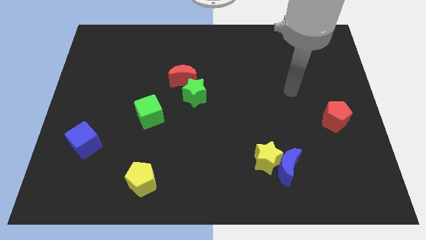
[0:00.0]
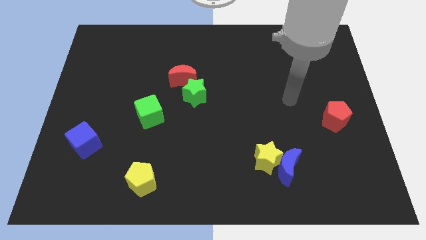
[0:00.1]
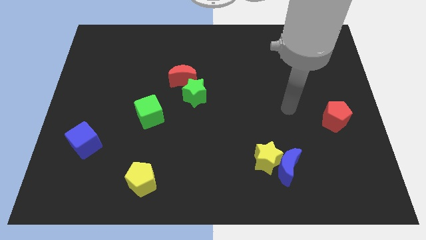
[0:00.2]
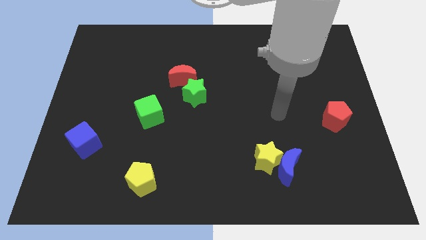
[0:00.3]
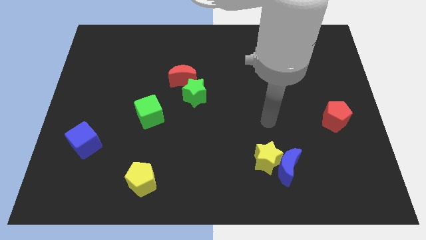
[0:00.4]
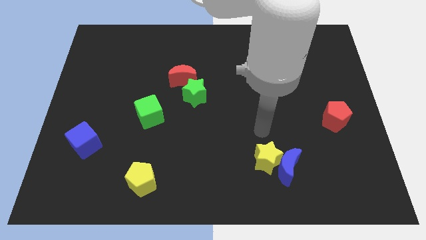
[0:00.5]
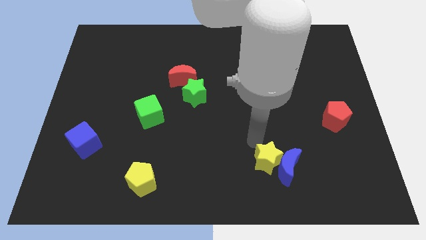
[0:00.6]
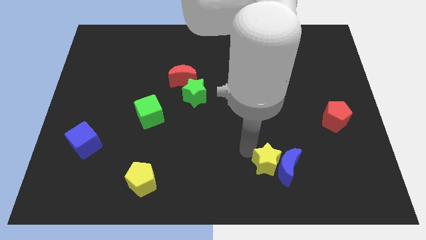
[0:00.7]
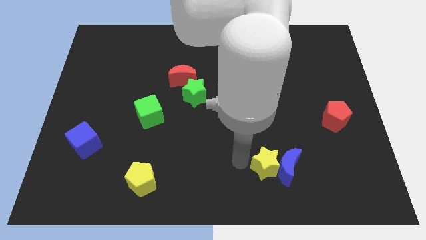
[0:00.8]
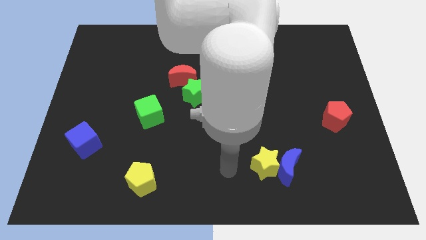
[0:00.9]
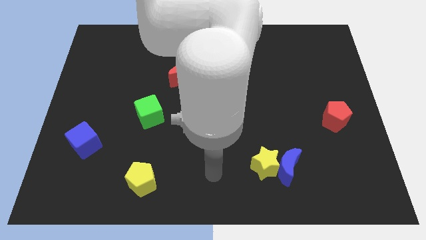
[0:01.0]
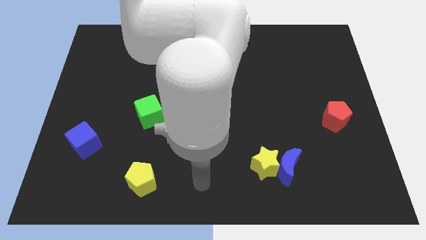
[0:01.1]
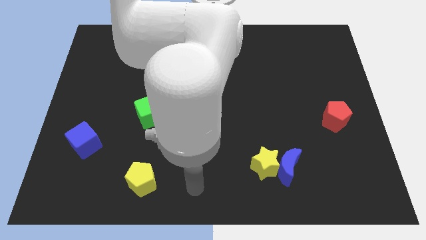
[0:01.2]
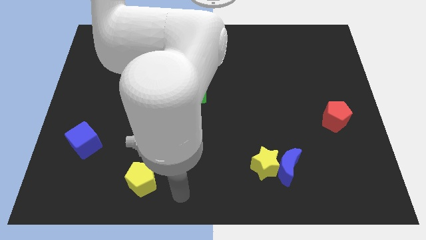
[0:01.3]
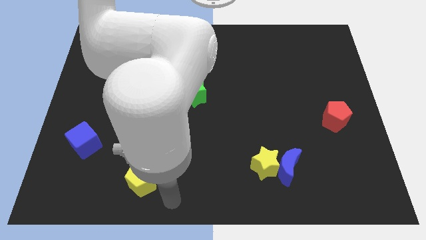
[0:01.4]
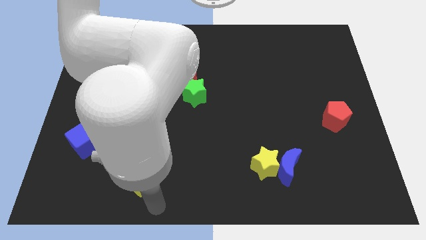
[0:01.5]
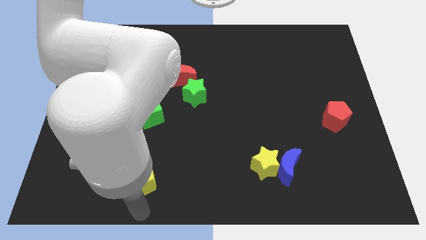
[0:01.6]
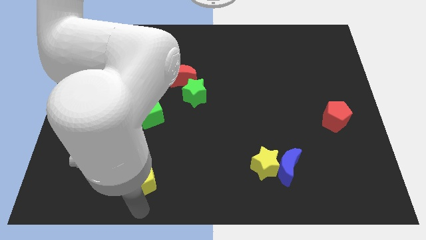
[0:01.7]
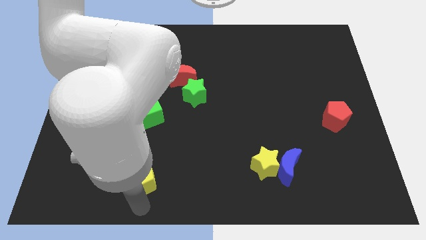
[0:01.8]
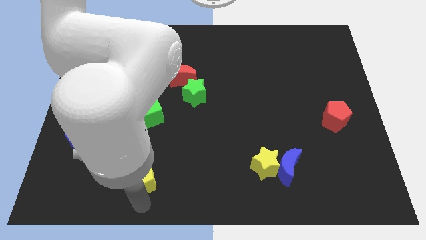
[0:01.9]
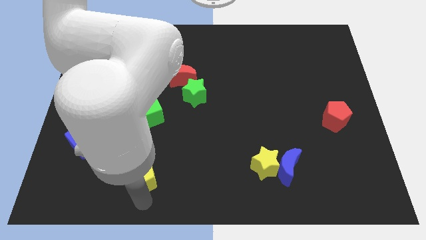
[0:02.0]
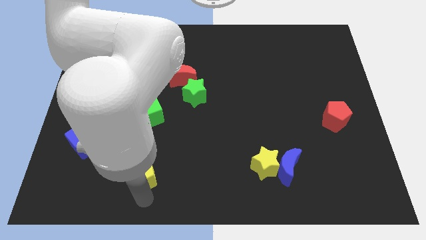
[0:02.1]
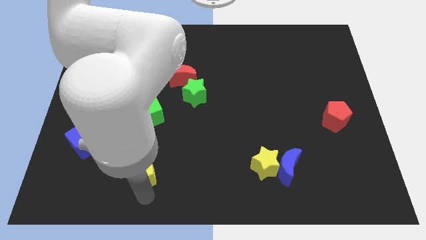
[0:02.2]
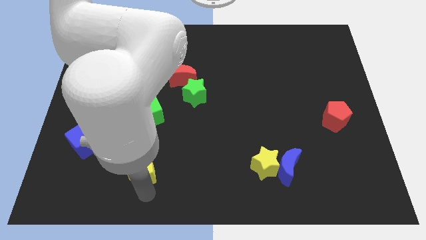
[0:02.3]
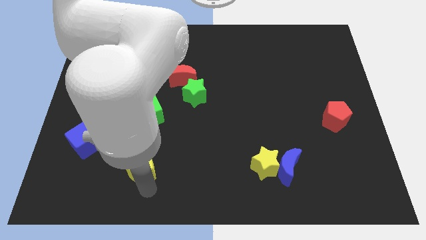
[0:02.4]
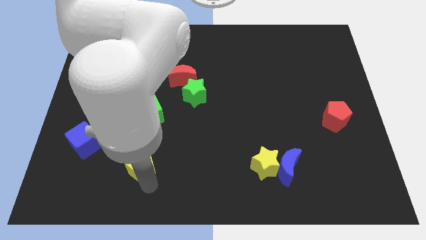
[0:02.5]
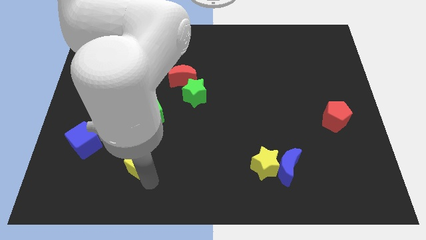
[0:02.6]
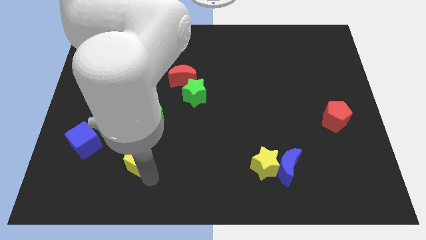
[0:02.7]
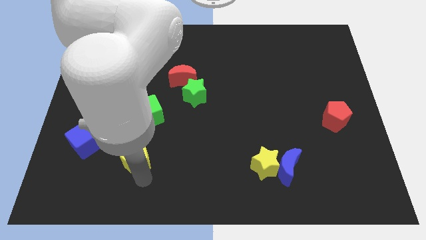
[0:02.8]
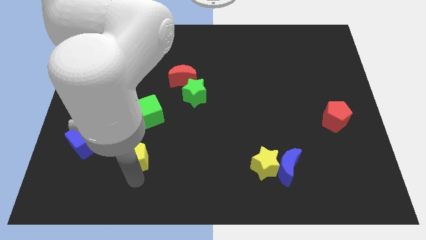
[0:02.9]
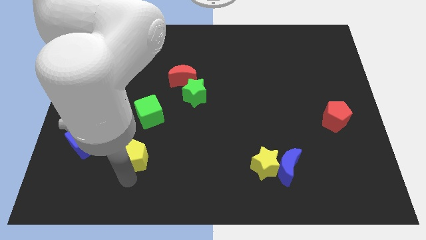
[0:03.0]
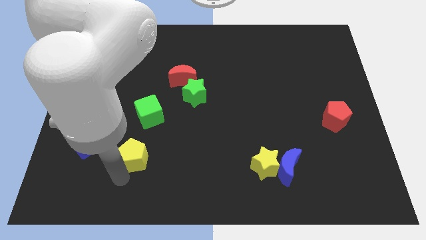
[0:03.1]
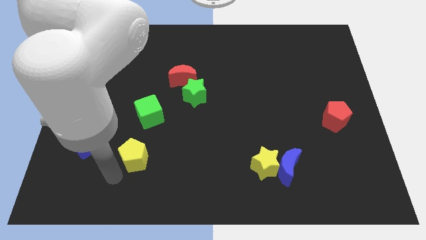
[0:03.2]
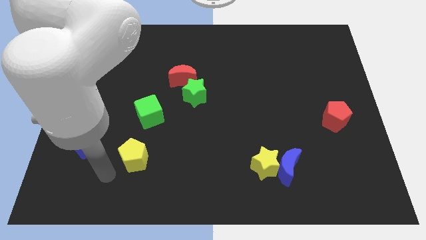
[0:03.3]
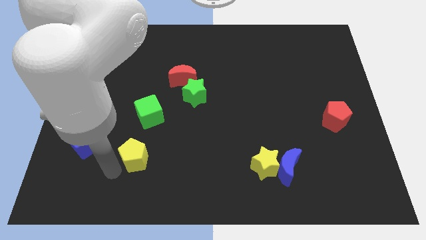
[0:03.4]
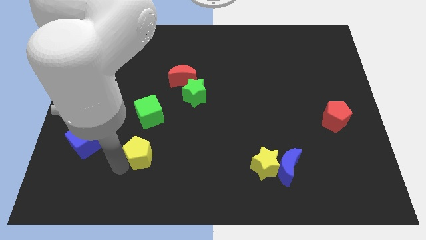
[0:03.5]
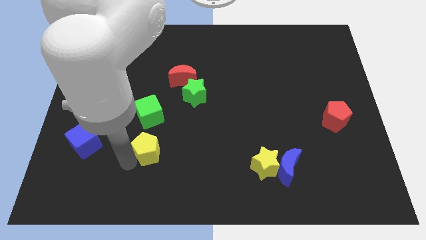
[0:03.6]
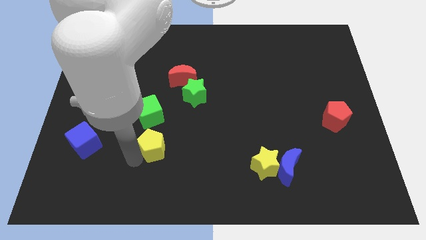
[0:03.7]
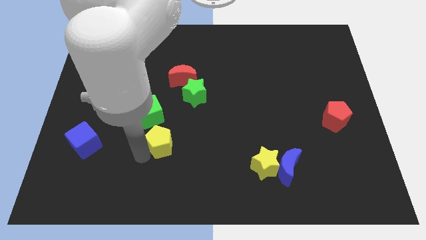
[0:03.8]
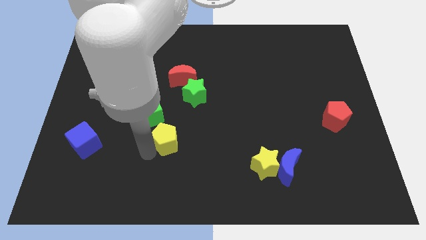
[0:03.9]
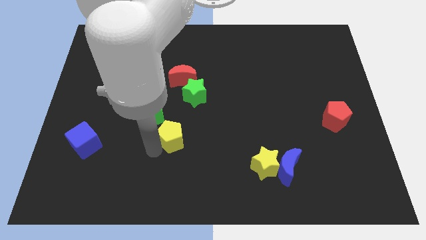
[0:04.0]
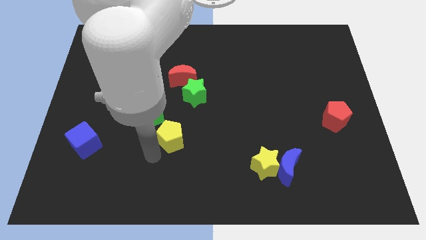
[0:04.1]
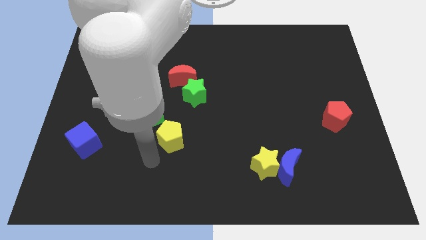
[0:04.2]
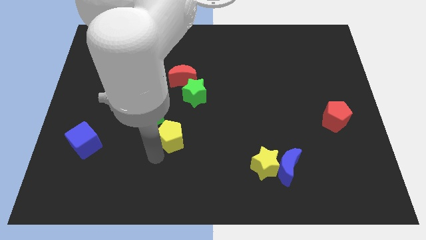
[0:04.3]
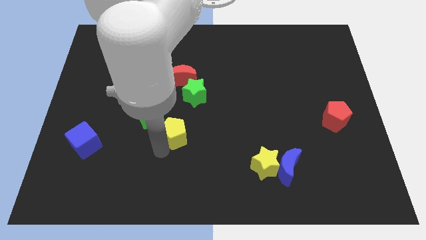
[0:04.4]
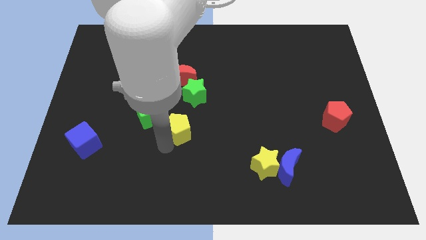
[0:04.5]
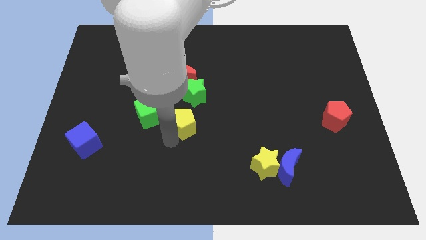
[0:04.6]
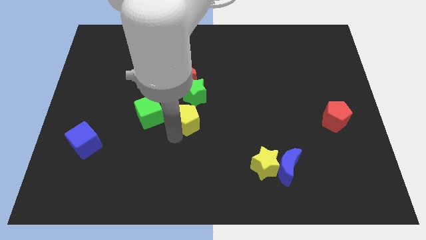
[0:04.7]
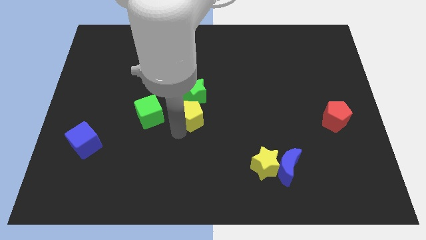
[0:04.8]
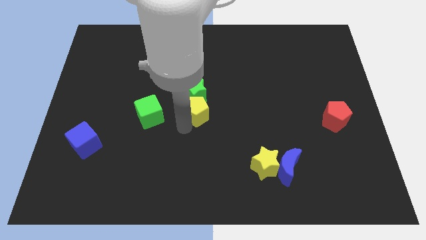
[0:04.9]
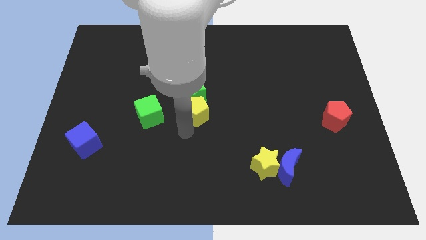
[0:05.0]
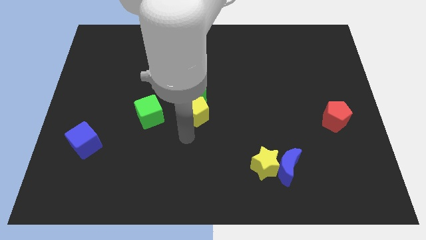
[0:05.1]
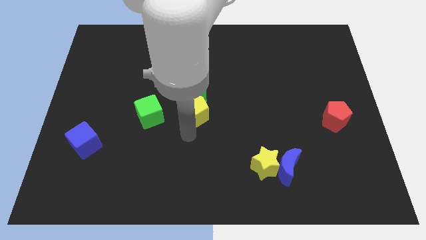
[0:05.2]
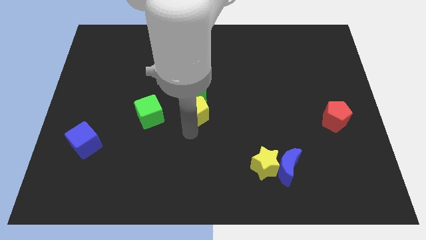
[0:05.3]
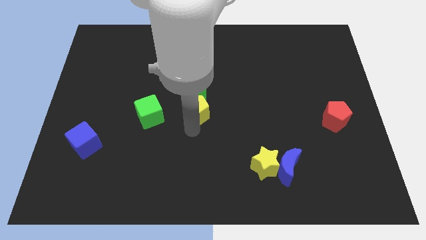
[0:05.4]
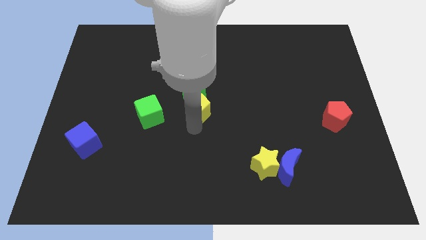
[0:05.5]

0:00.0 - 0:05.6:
push the yellow pentagon diagonally down and to the right of the red moon
